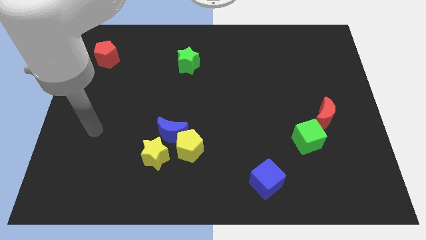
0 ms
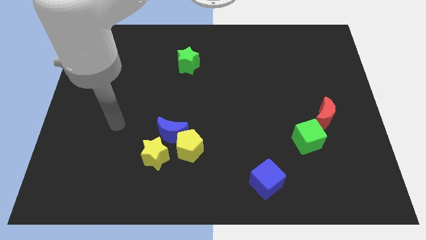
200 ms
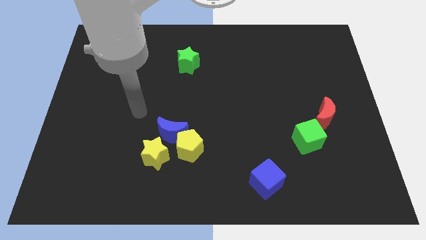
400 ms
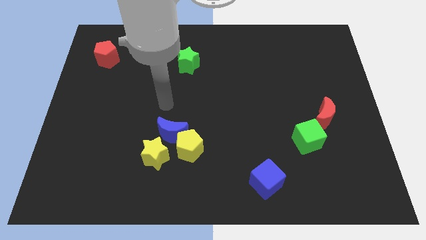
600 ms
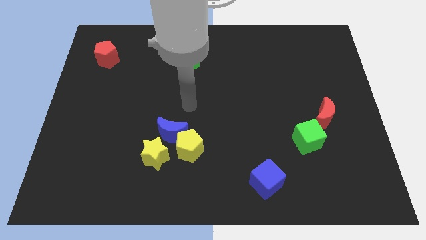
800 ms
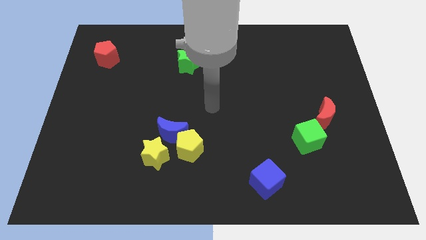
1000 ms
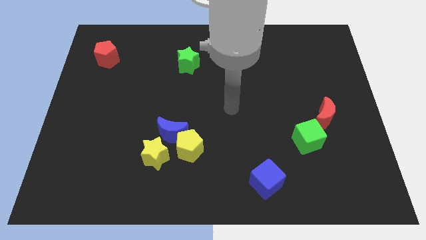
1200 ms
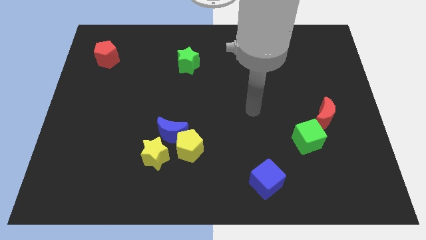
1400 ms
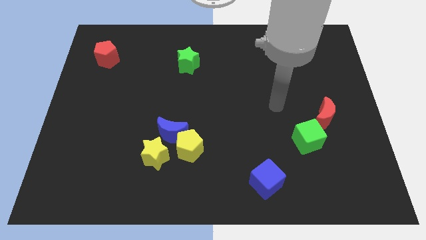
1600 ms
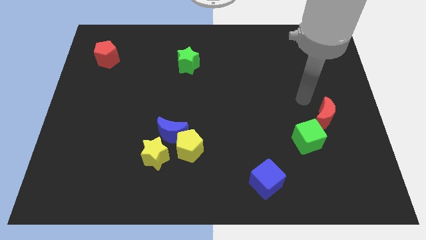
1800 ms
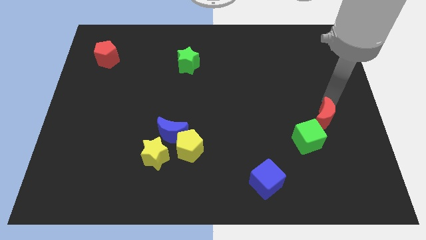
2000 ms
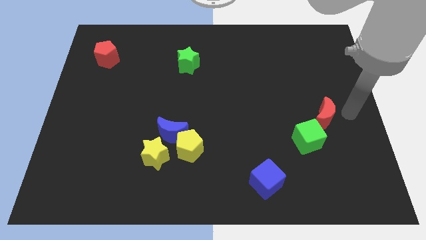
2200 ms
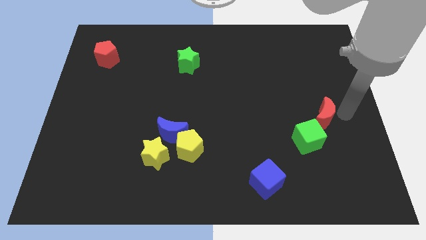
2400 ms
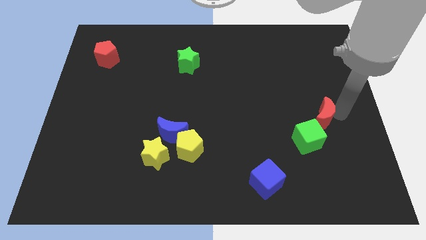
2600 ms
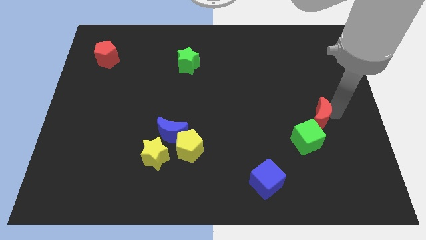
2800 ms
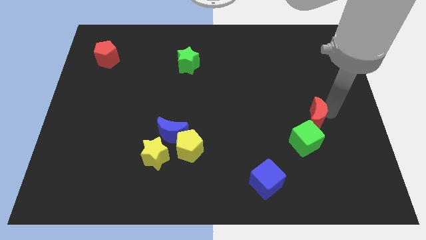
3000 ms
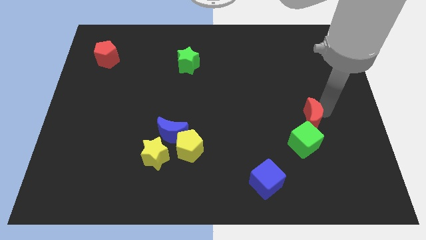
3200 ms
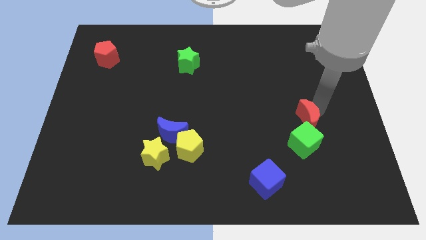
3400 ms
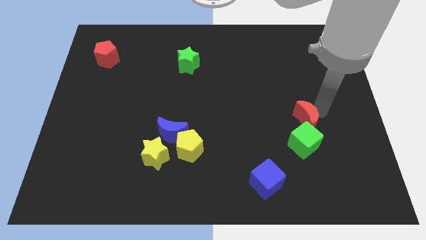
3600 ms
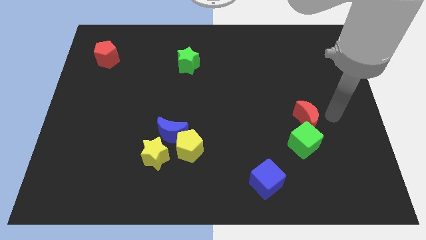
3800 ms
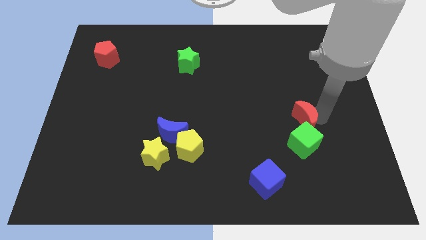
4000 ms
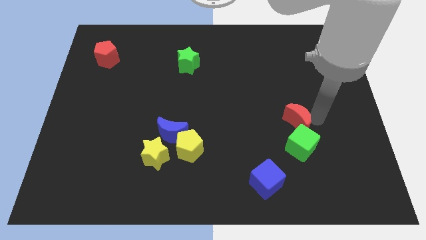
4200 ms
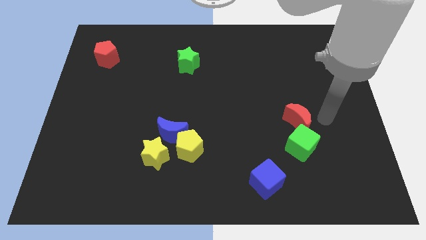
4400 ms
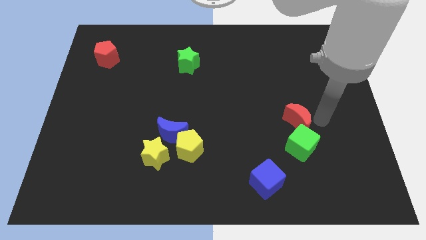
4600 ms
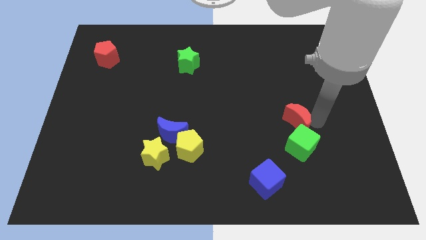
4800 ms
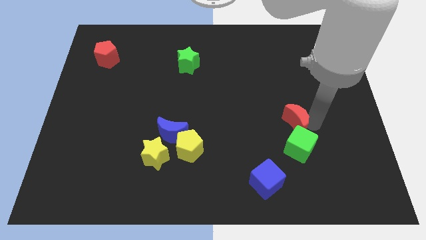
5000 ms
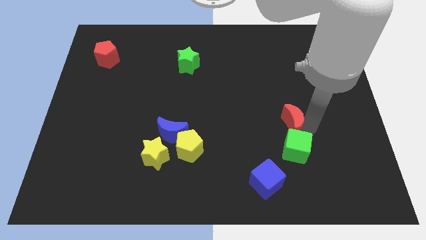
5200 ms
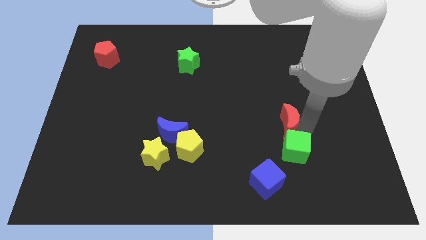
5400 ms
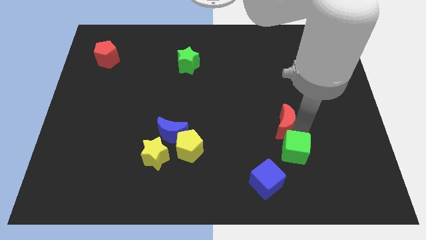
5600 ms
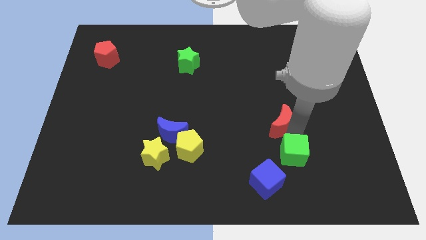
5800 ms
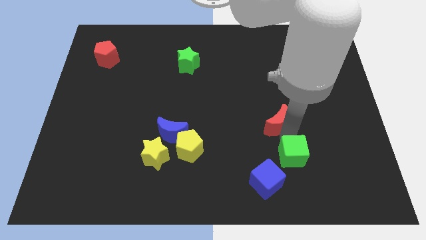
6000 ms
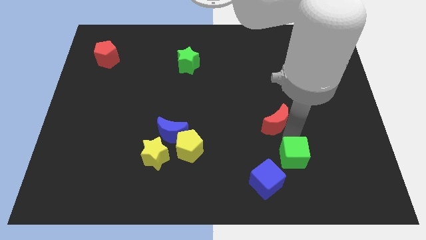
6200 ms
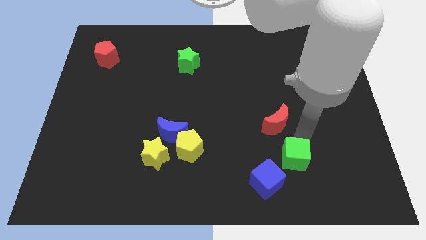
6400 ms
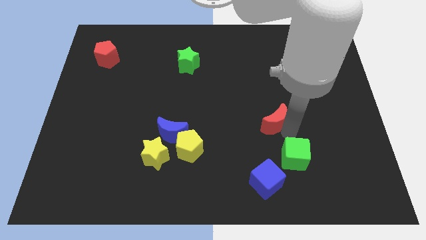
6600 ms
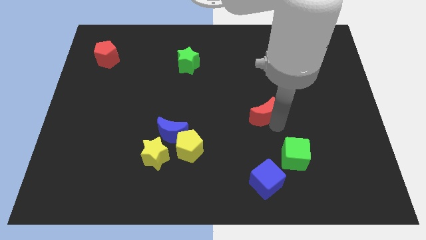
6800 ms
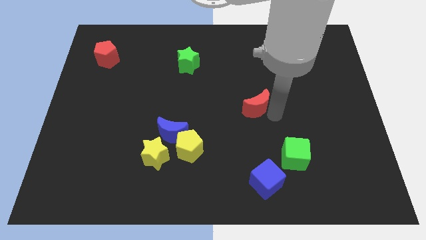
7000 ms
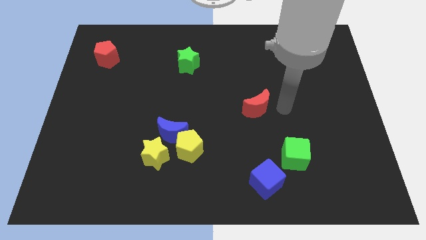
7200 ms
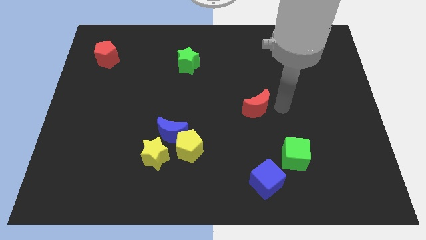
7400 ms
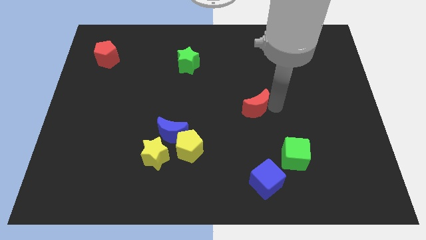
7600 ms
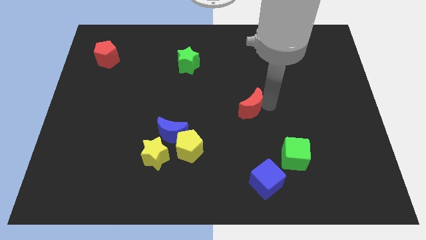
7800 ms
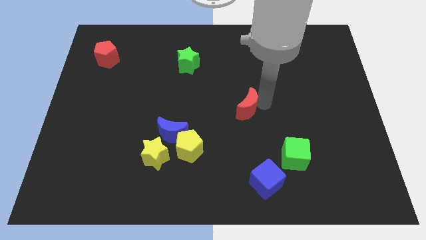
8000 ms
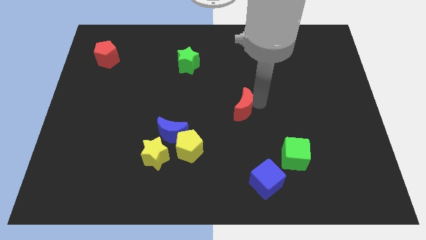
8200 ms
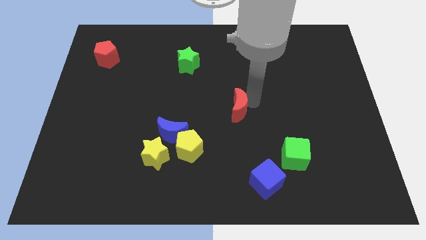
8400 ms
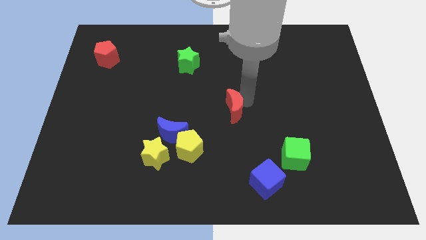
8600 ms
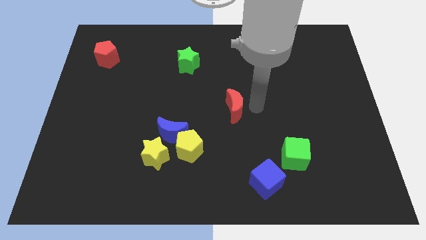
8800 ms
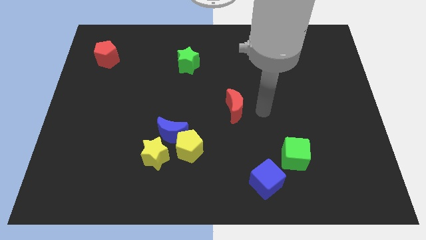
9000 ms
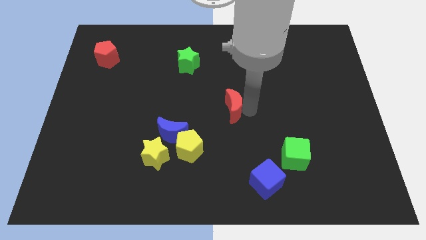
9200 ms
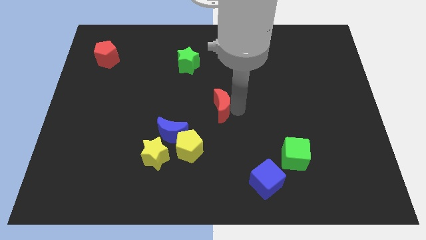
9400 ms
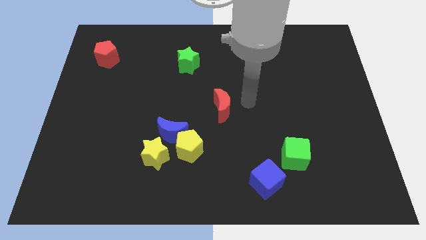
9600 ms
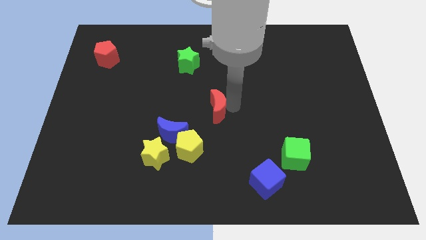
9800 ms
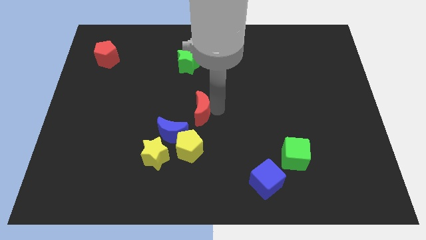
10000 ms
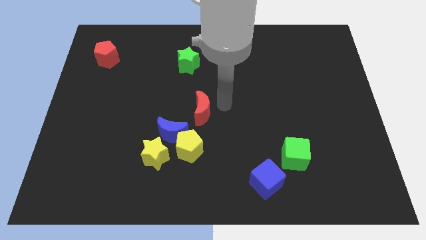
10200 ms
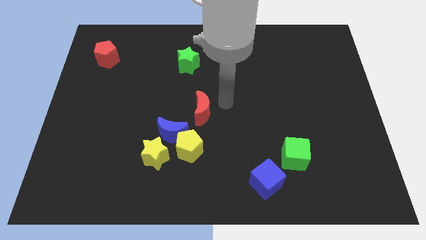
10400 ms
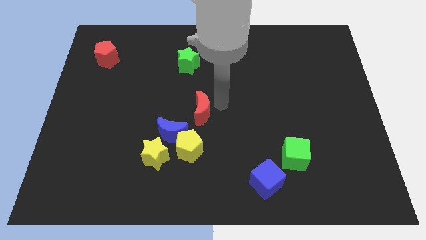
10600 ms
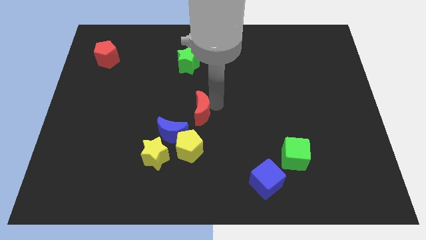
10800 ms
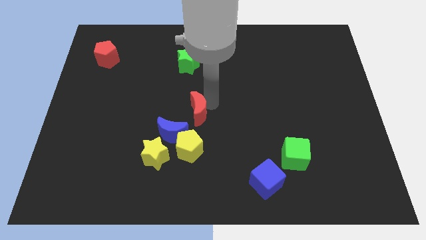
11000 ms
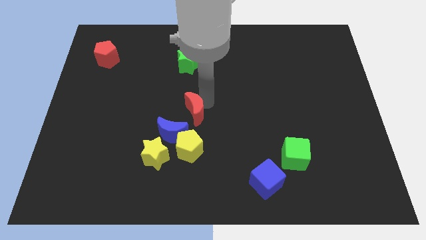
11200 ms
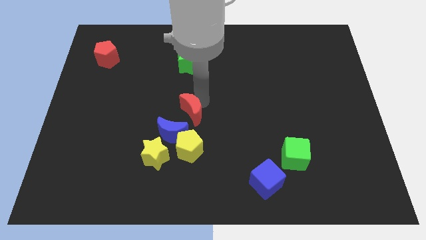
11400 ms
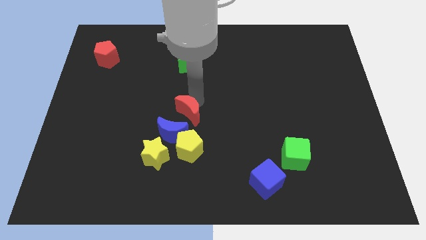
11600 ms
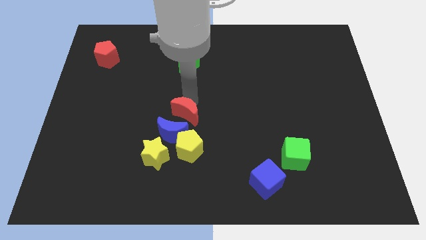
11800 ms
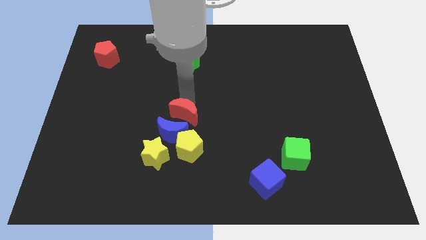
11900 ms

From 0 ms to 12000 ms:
put the red moon next to the blue moon

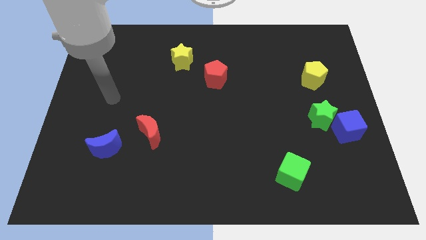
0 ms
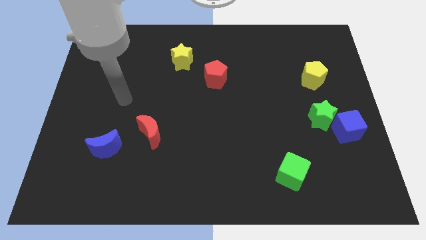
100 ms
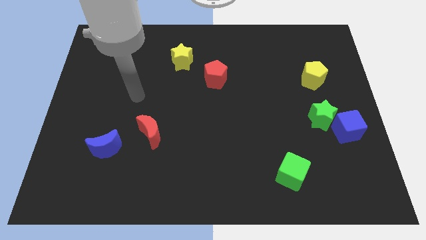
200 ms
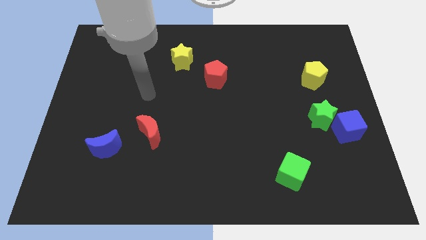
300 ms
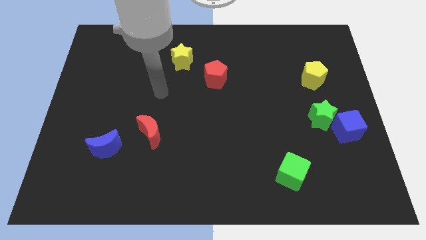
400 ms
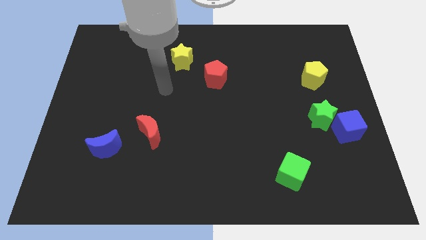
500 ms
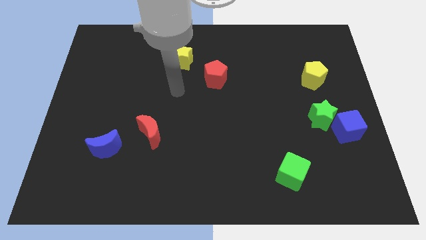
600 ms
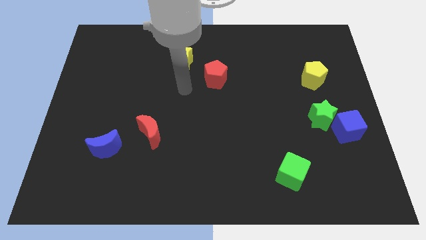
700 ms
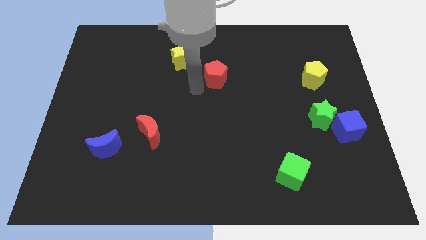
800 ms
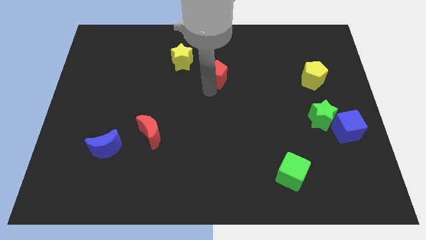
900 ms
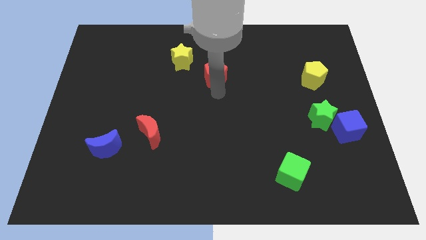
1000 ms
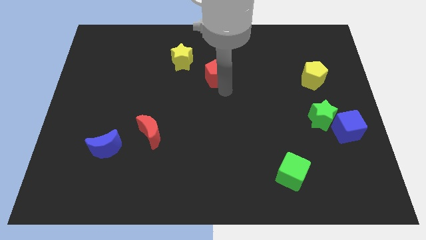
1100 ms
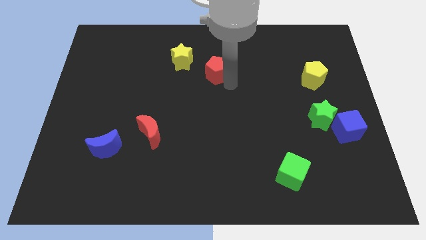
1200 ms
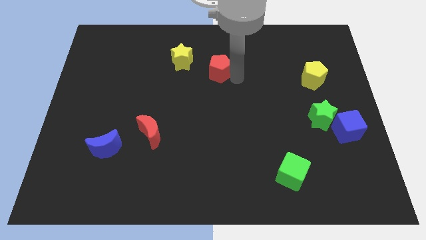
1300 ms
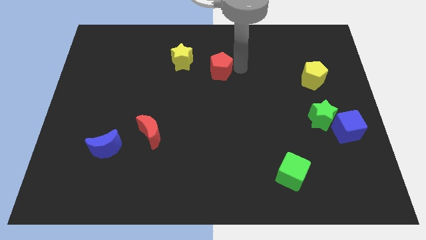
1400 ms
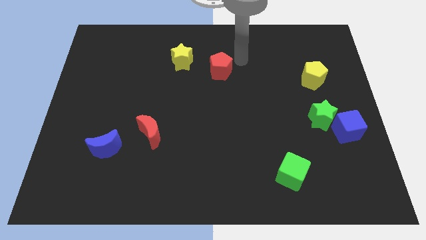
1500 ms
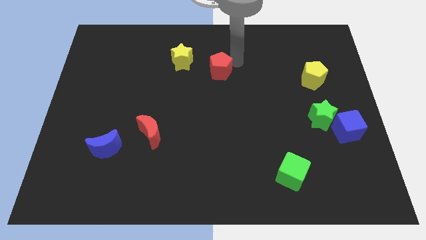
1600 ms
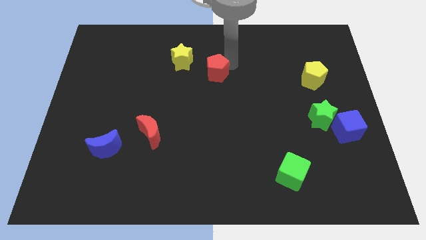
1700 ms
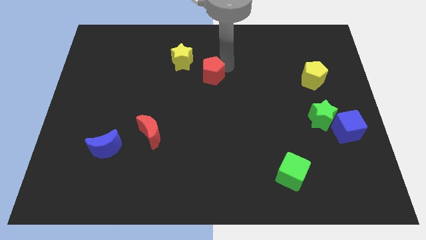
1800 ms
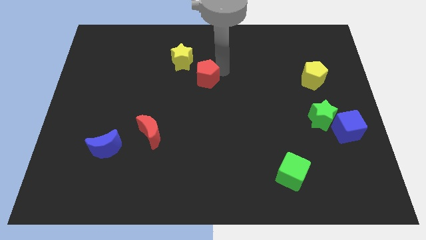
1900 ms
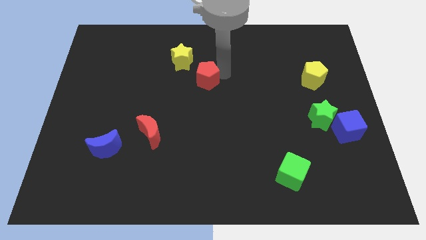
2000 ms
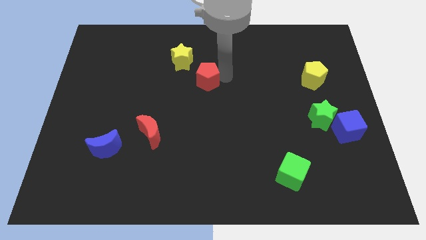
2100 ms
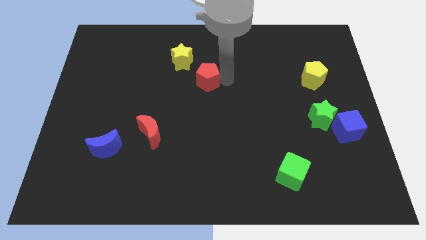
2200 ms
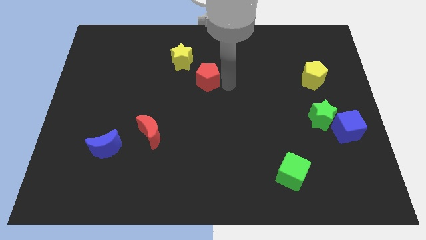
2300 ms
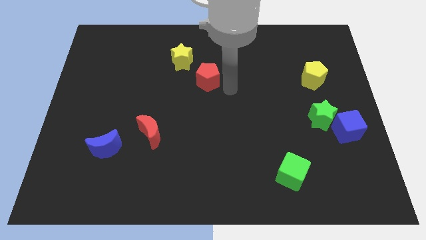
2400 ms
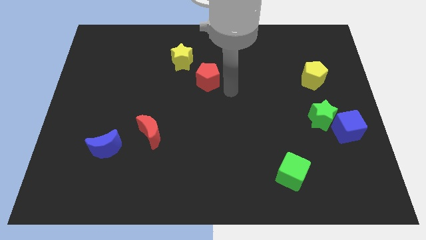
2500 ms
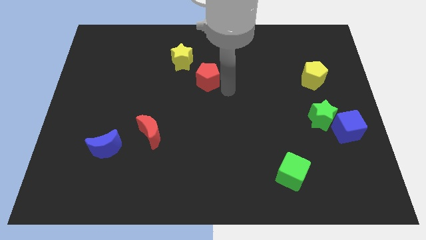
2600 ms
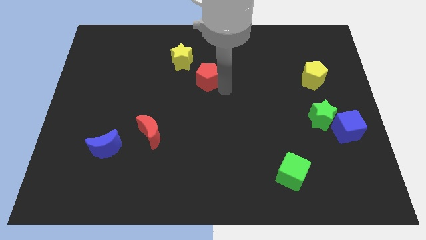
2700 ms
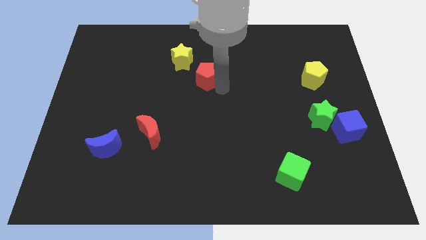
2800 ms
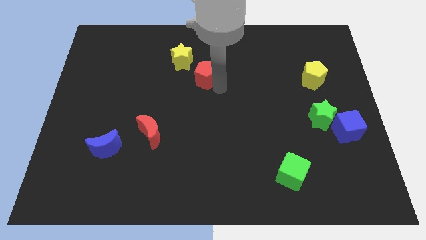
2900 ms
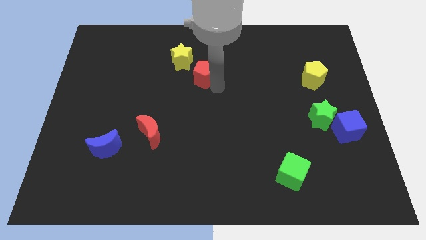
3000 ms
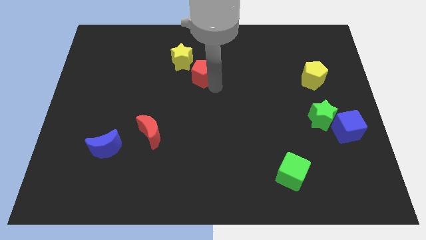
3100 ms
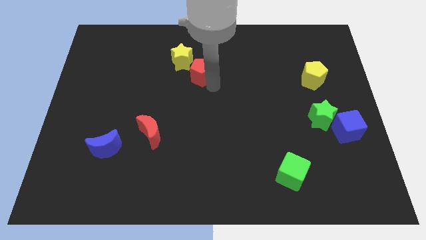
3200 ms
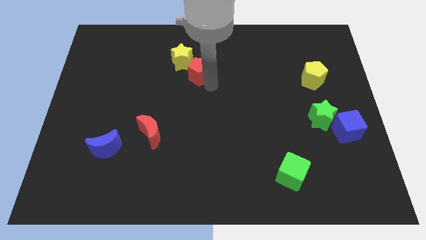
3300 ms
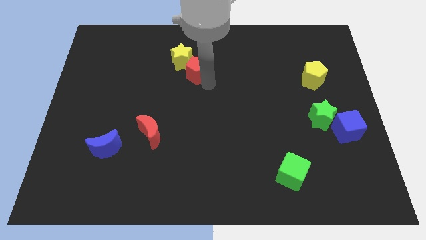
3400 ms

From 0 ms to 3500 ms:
slide the red pentagon next to the yellow star
